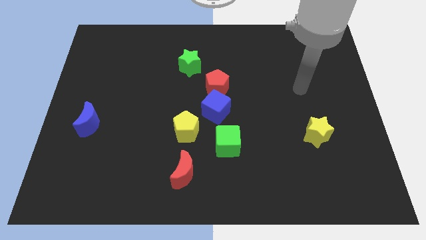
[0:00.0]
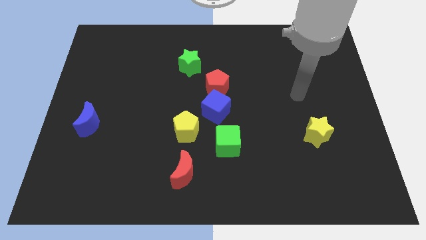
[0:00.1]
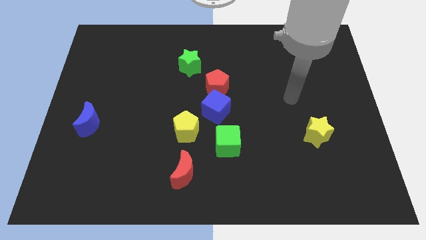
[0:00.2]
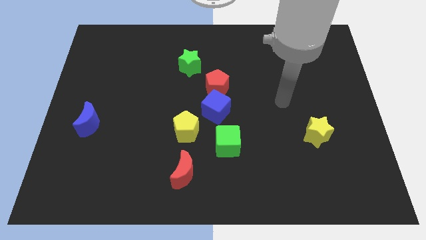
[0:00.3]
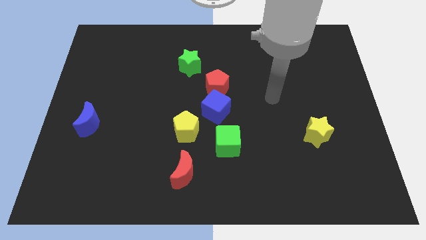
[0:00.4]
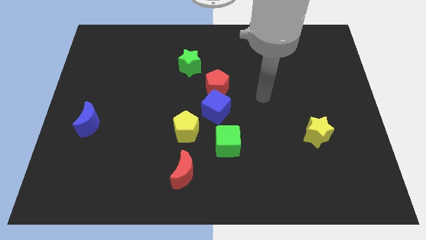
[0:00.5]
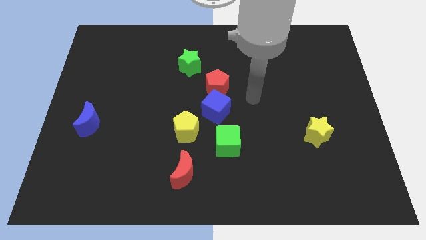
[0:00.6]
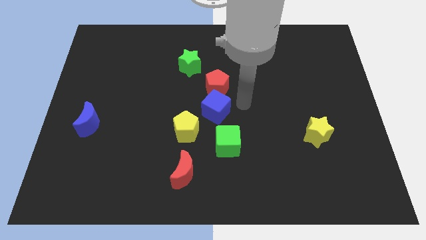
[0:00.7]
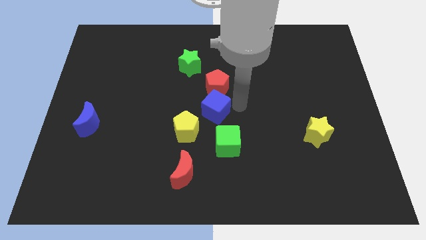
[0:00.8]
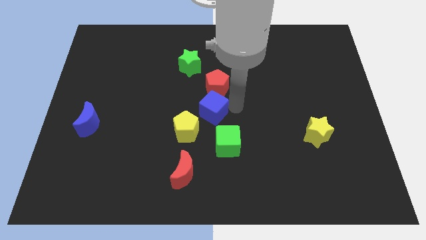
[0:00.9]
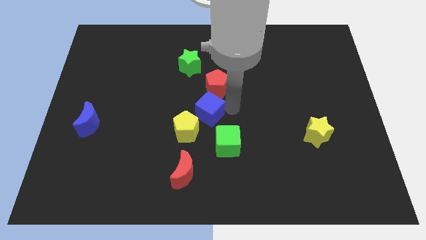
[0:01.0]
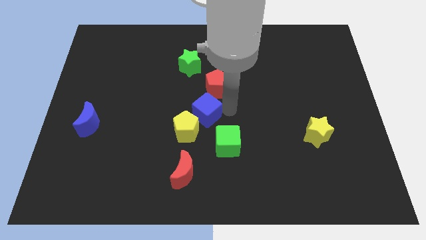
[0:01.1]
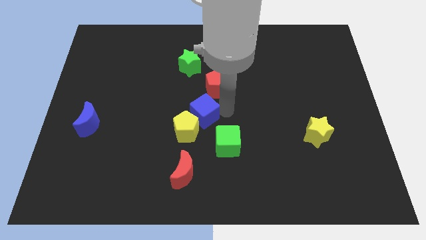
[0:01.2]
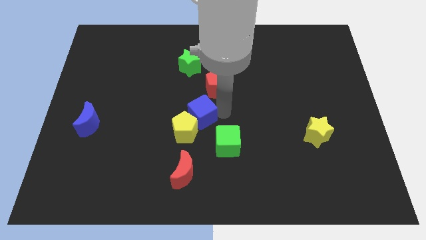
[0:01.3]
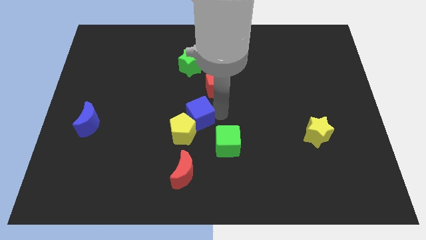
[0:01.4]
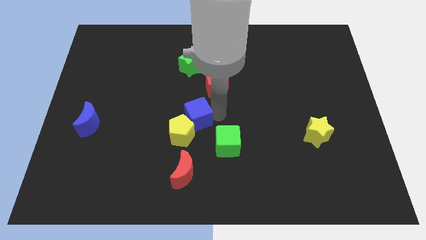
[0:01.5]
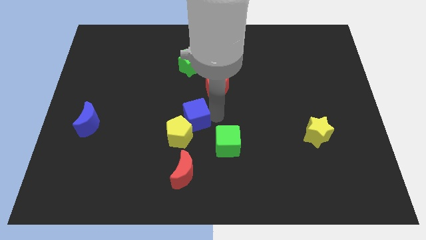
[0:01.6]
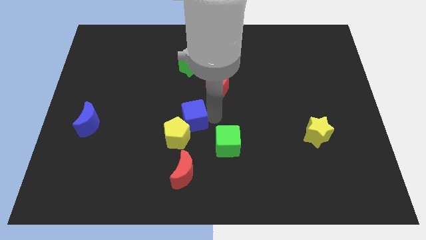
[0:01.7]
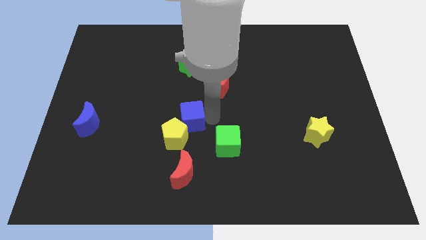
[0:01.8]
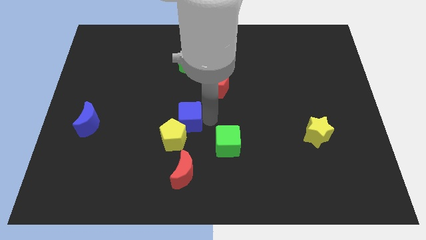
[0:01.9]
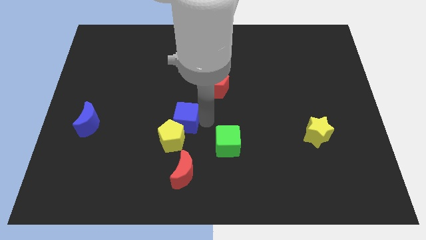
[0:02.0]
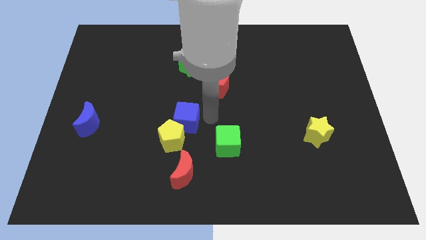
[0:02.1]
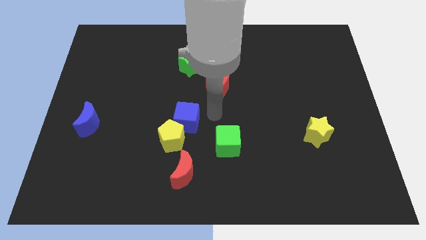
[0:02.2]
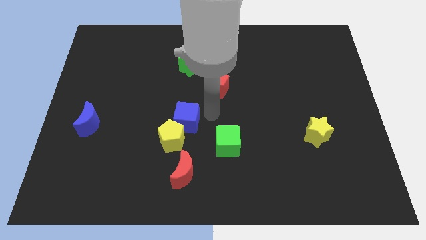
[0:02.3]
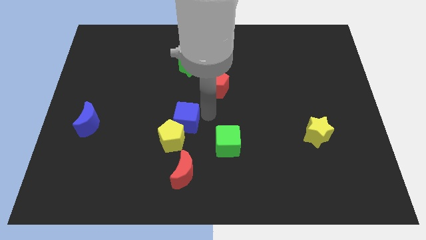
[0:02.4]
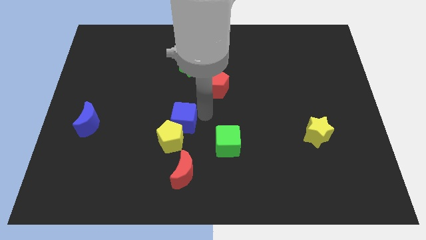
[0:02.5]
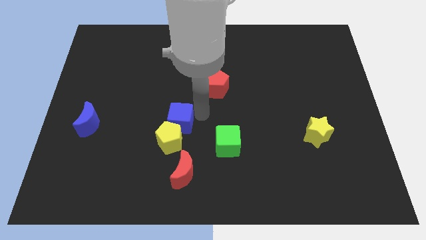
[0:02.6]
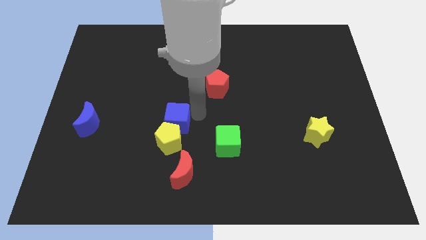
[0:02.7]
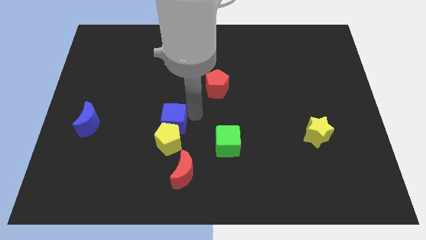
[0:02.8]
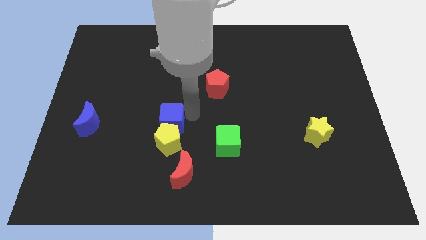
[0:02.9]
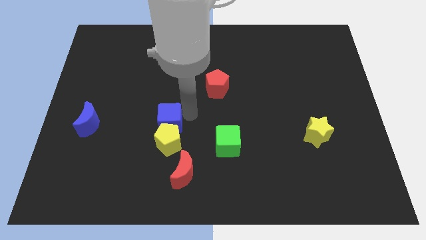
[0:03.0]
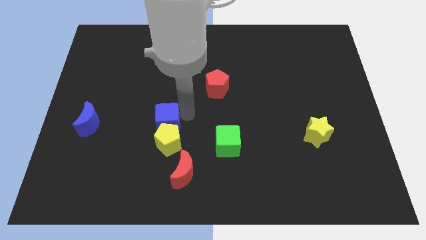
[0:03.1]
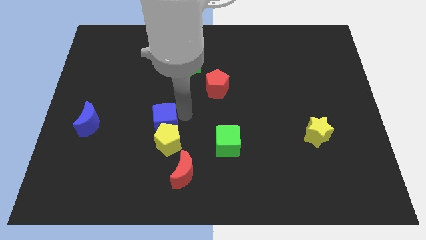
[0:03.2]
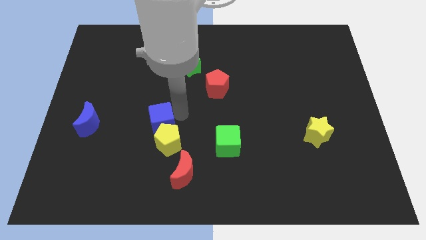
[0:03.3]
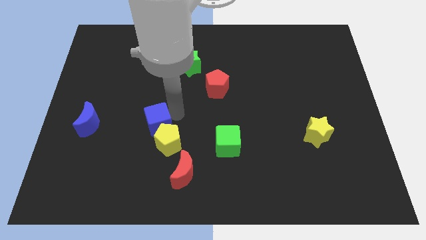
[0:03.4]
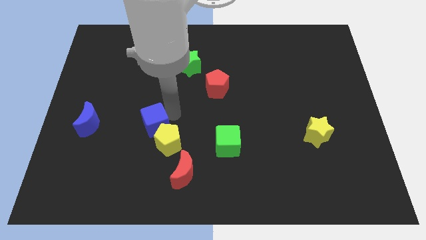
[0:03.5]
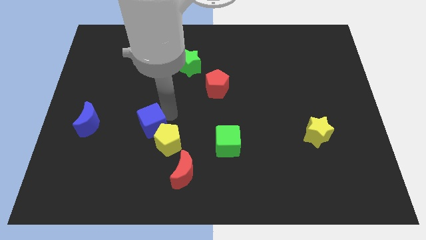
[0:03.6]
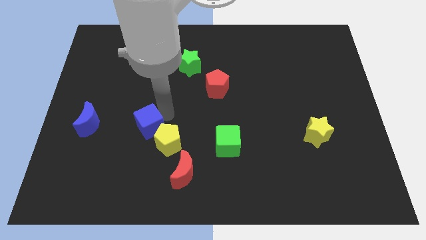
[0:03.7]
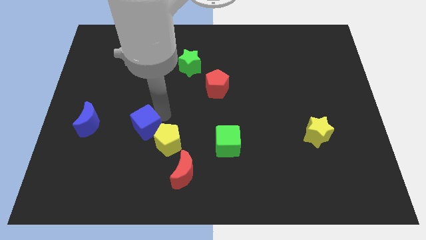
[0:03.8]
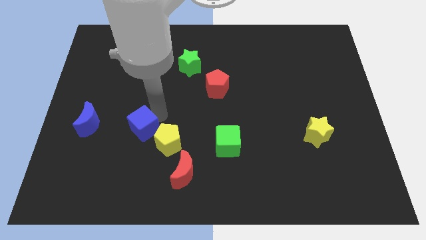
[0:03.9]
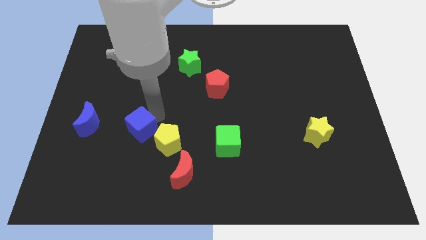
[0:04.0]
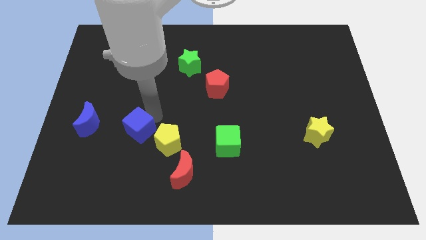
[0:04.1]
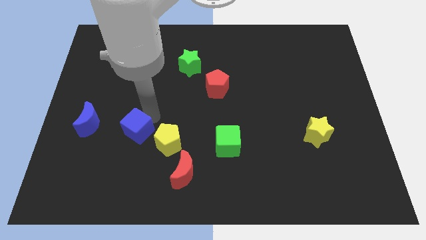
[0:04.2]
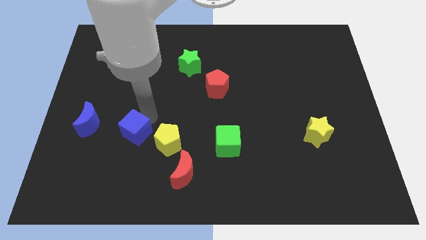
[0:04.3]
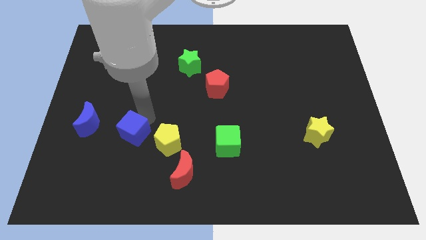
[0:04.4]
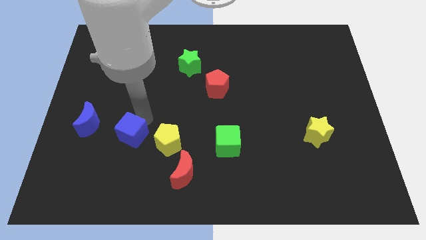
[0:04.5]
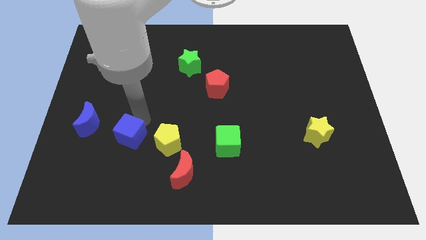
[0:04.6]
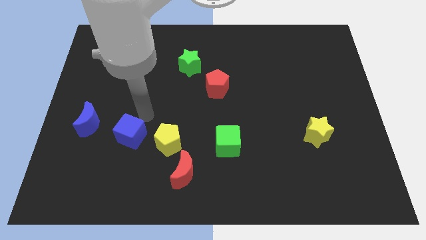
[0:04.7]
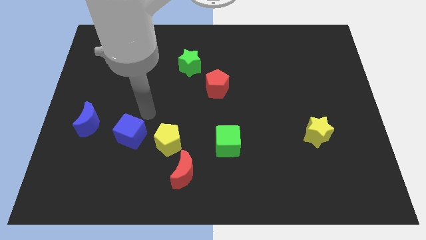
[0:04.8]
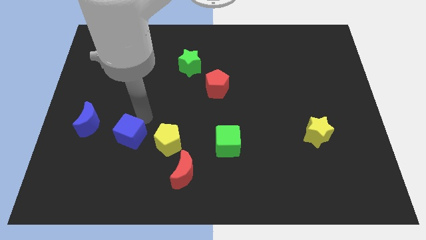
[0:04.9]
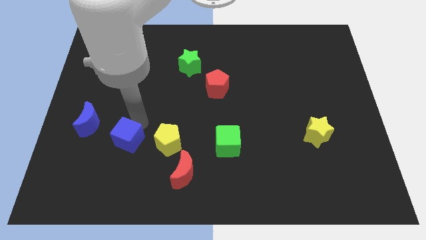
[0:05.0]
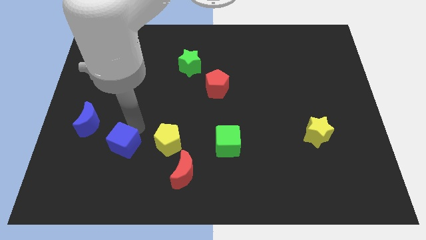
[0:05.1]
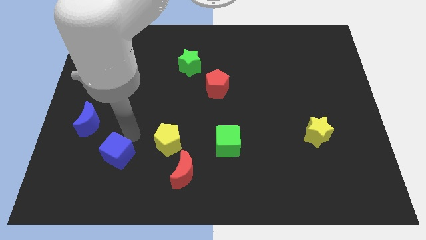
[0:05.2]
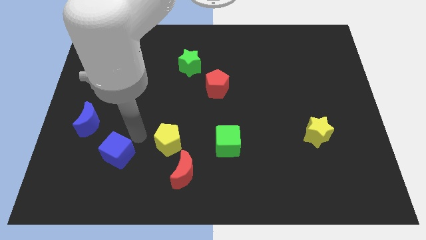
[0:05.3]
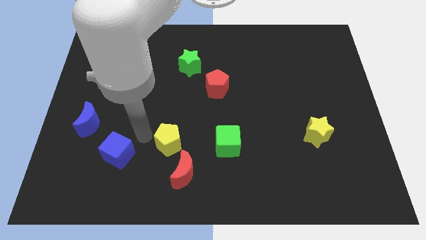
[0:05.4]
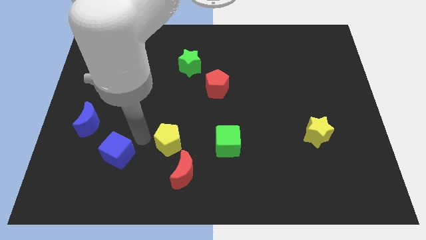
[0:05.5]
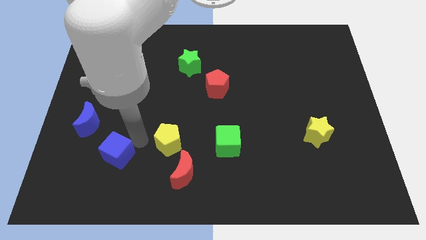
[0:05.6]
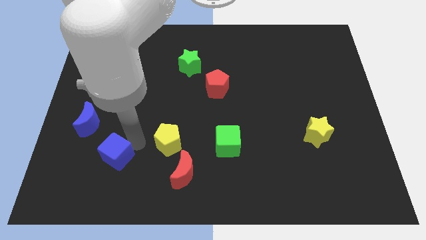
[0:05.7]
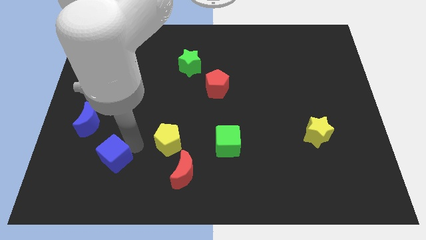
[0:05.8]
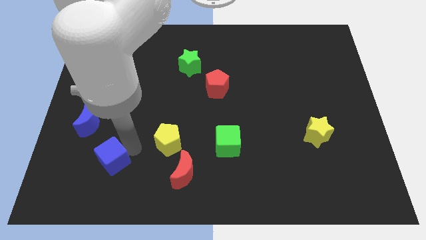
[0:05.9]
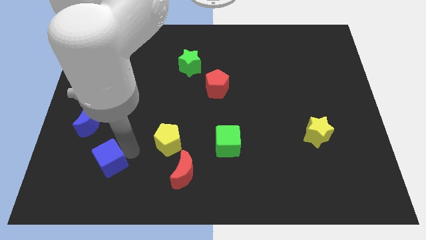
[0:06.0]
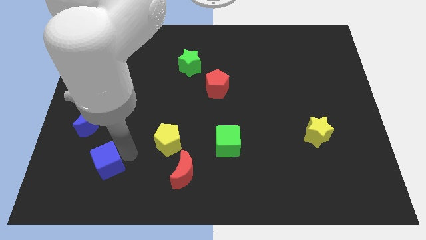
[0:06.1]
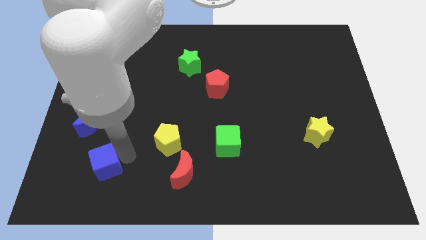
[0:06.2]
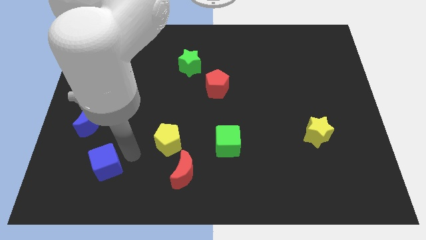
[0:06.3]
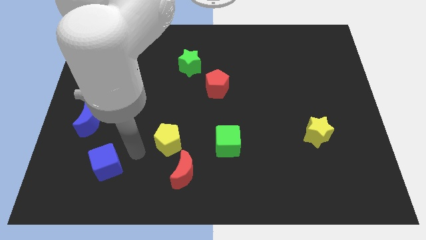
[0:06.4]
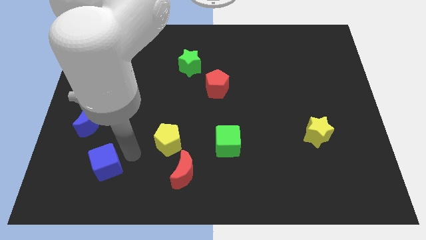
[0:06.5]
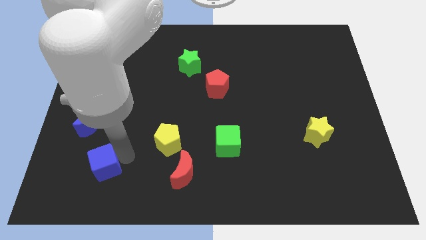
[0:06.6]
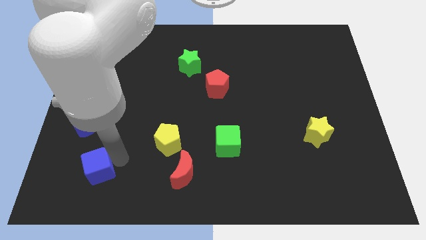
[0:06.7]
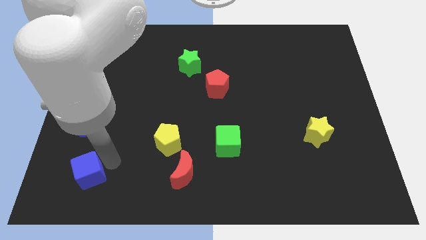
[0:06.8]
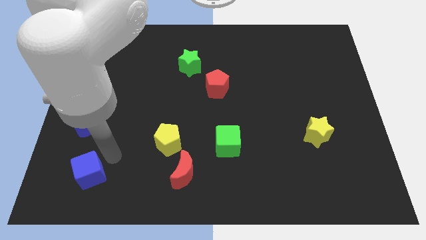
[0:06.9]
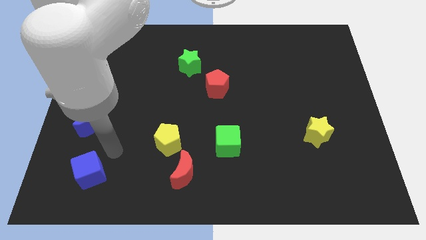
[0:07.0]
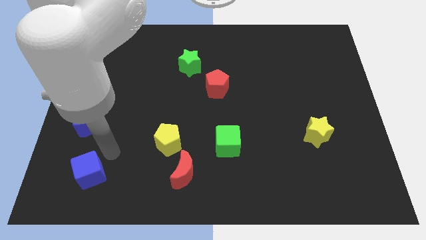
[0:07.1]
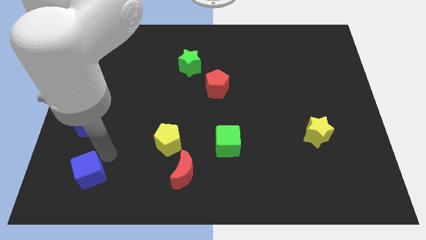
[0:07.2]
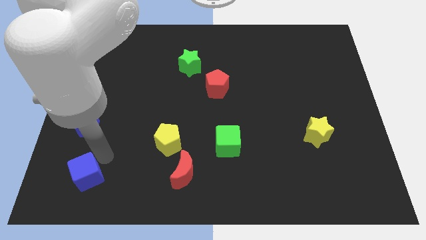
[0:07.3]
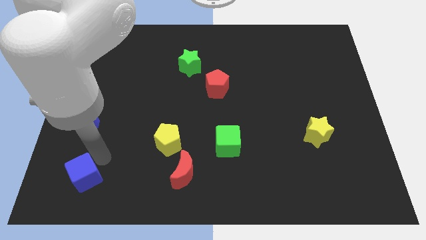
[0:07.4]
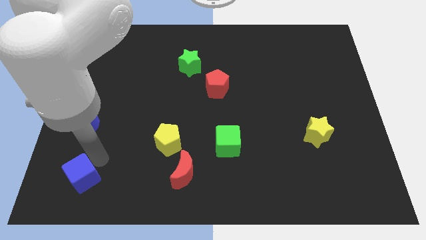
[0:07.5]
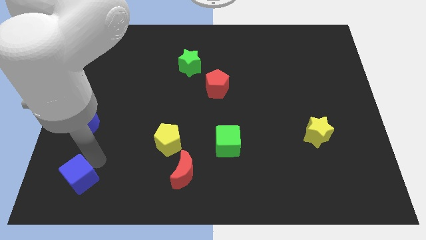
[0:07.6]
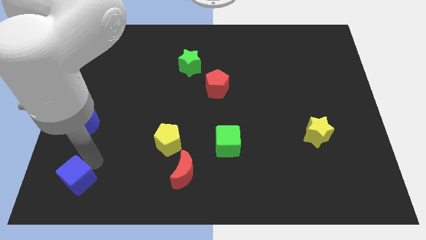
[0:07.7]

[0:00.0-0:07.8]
slide the blue cube to the bottom left of the board
